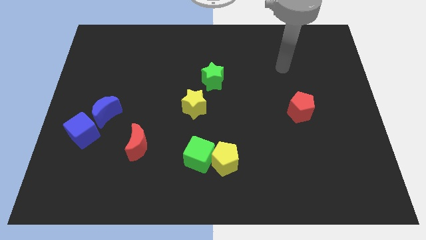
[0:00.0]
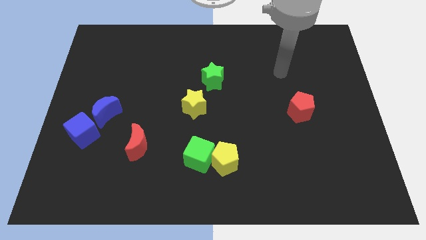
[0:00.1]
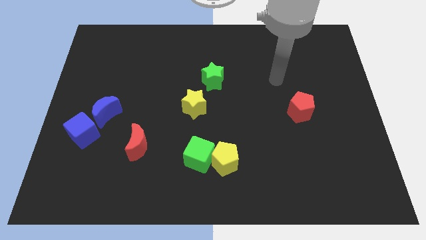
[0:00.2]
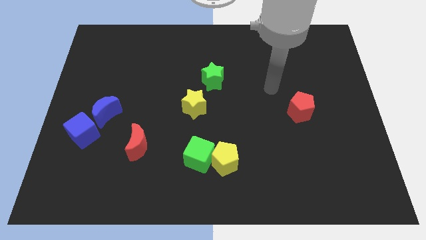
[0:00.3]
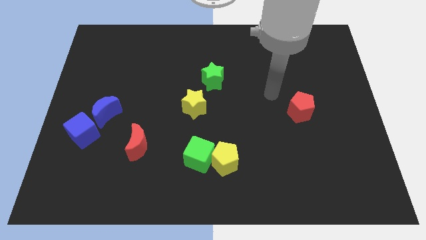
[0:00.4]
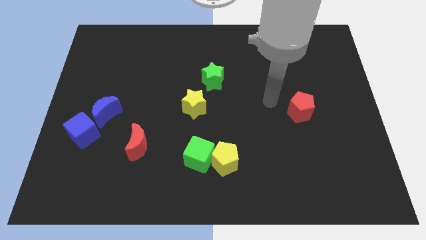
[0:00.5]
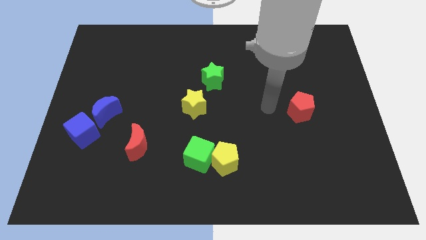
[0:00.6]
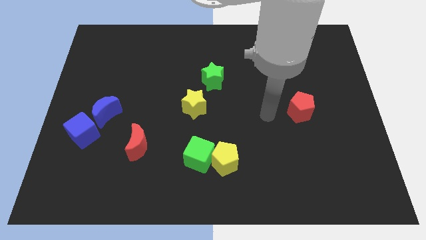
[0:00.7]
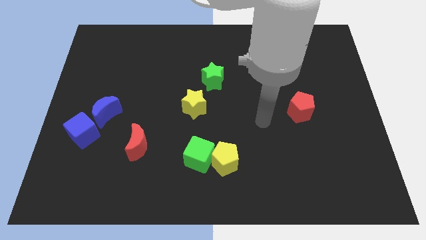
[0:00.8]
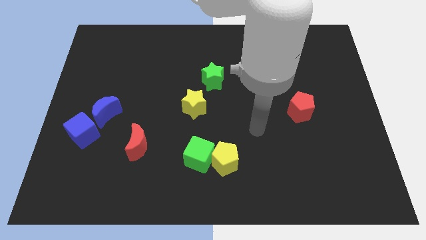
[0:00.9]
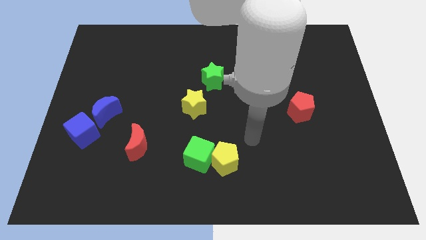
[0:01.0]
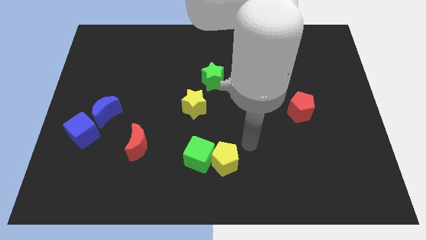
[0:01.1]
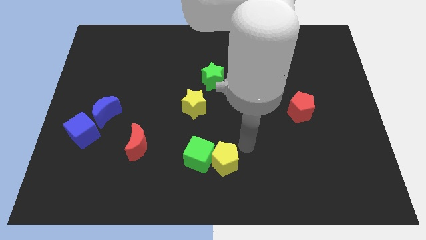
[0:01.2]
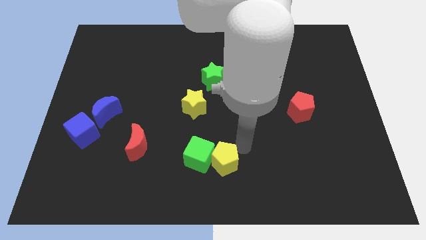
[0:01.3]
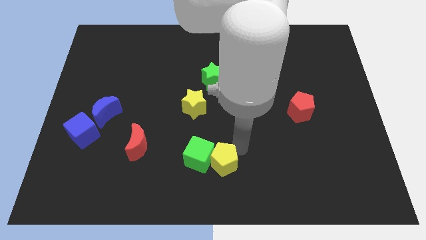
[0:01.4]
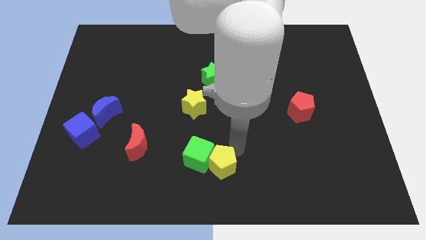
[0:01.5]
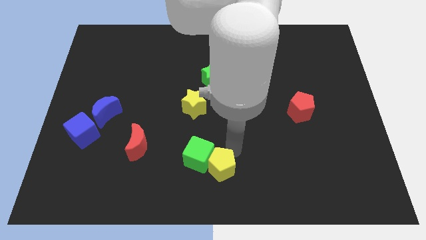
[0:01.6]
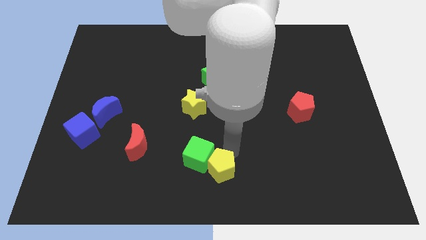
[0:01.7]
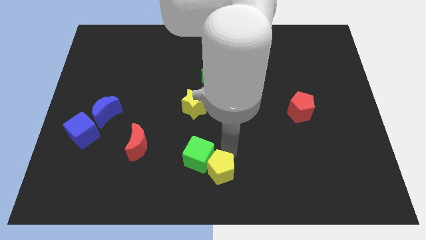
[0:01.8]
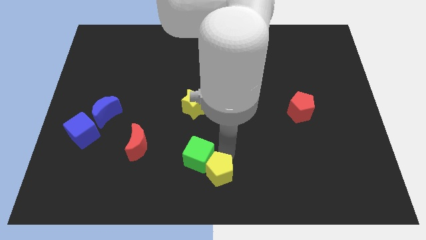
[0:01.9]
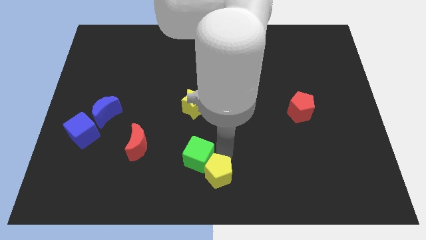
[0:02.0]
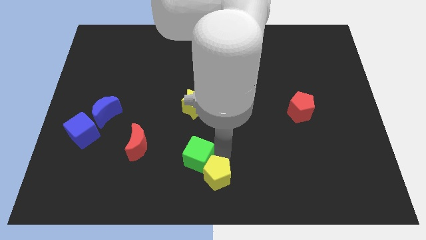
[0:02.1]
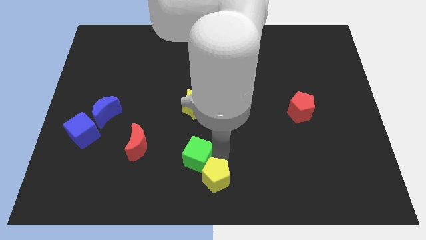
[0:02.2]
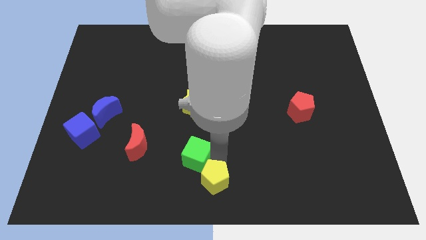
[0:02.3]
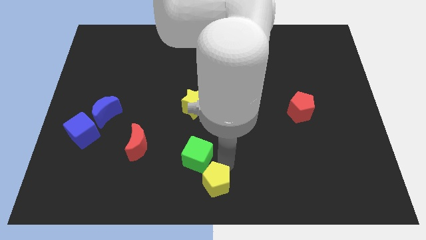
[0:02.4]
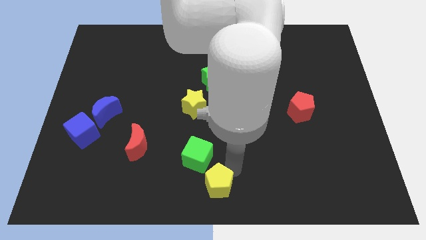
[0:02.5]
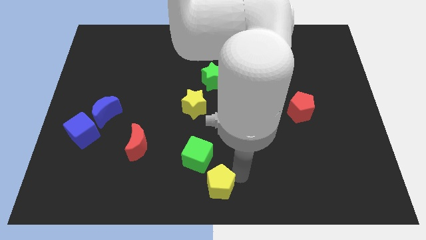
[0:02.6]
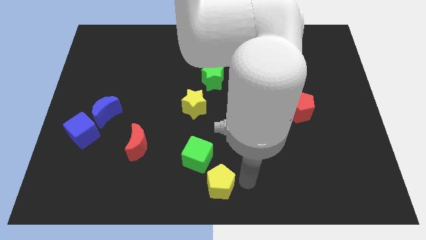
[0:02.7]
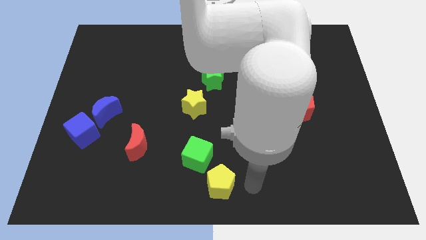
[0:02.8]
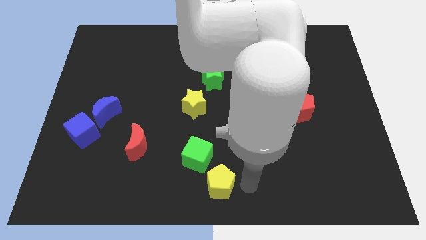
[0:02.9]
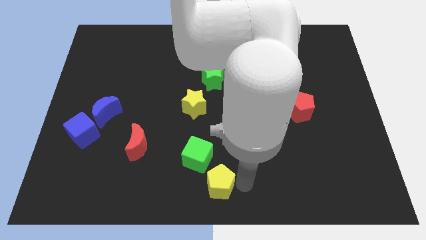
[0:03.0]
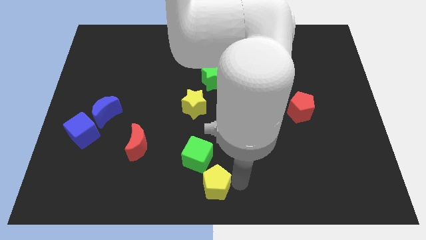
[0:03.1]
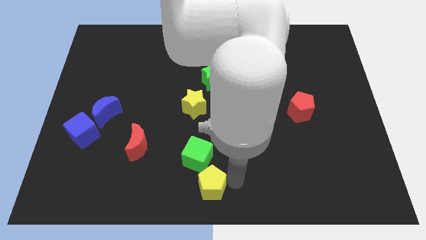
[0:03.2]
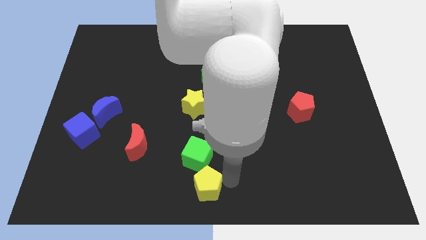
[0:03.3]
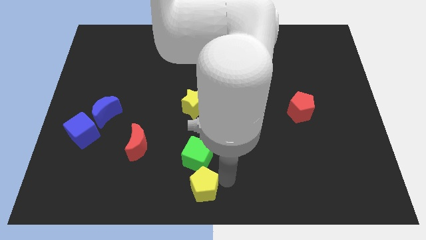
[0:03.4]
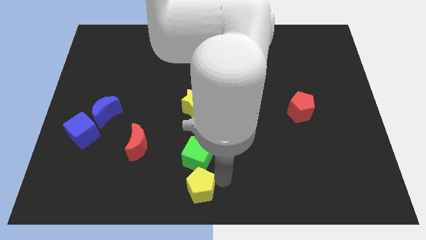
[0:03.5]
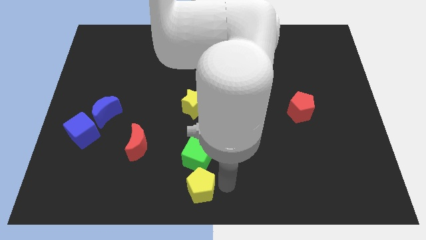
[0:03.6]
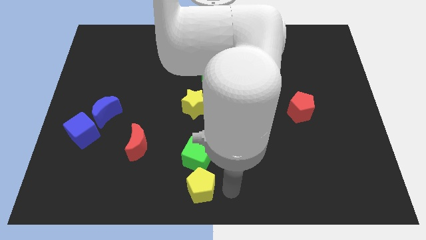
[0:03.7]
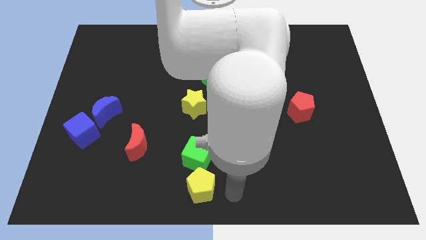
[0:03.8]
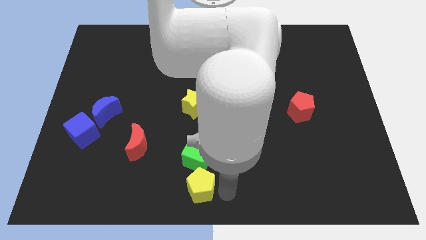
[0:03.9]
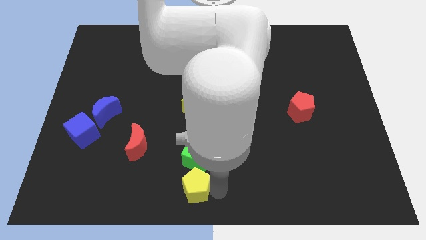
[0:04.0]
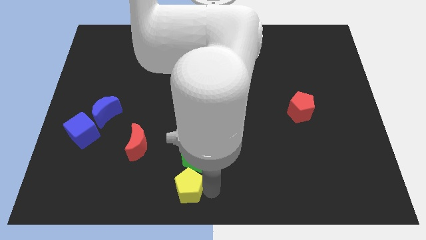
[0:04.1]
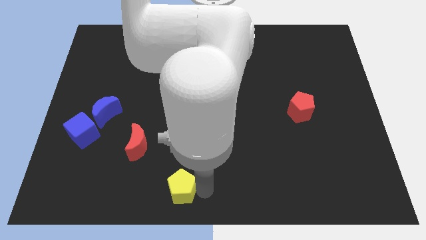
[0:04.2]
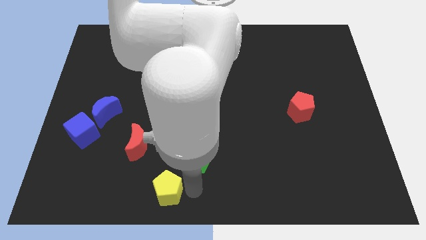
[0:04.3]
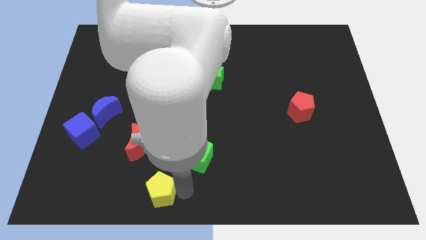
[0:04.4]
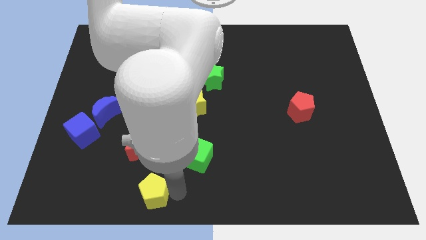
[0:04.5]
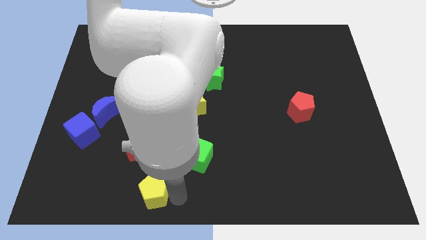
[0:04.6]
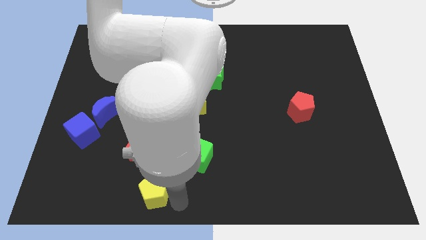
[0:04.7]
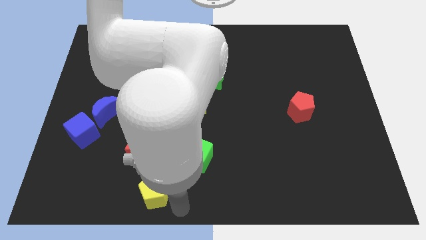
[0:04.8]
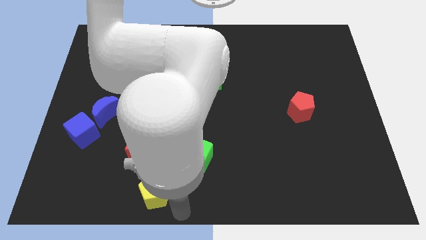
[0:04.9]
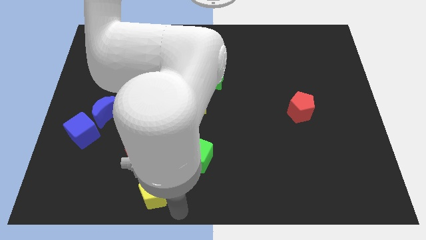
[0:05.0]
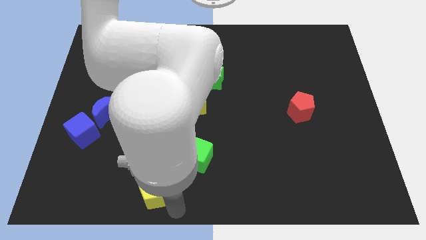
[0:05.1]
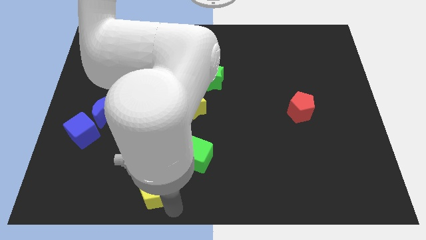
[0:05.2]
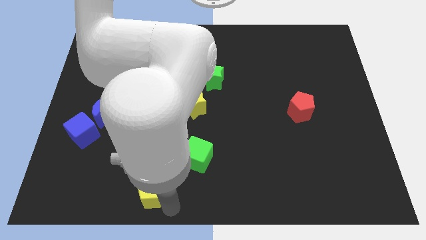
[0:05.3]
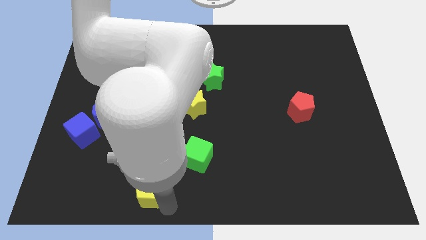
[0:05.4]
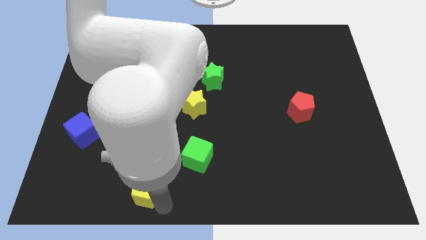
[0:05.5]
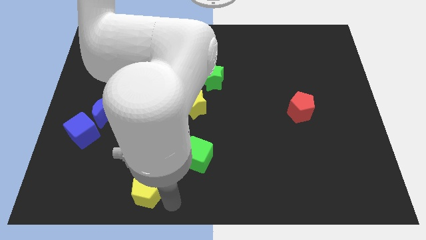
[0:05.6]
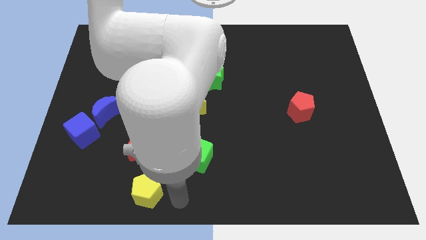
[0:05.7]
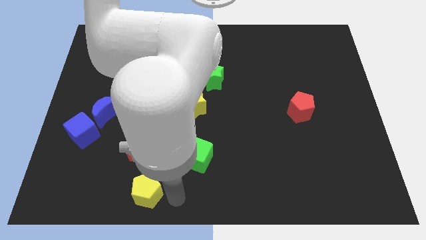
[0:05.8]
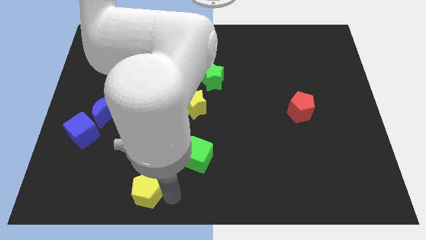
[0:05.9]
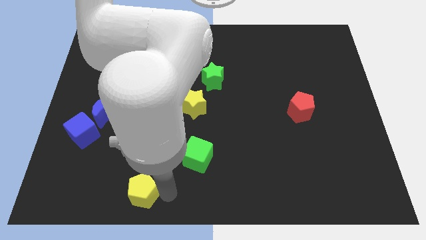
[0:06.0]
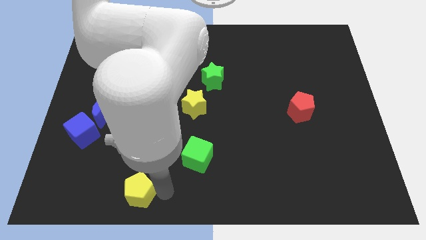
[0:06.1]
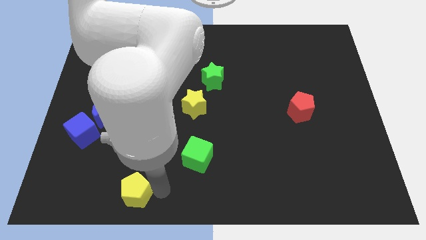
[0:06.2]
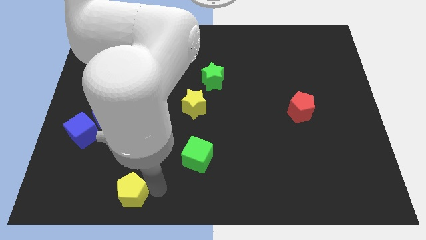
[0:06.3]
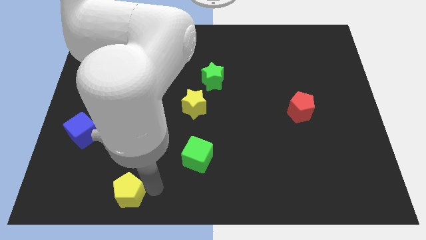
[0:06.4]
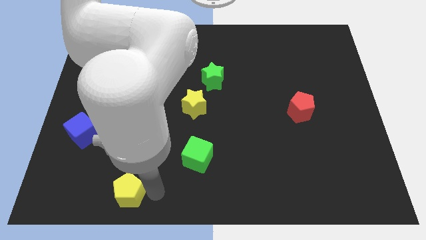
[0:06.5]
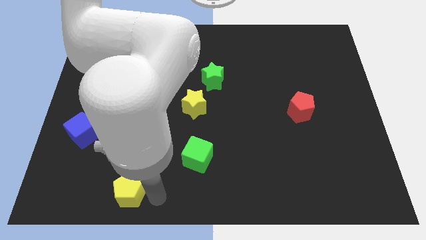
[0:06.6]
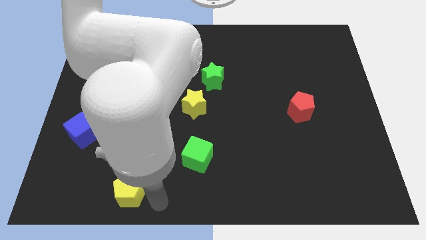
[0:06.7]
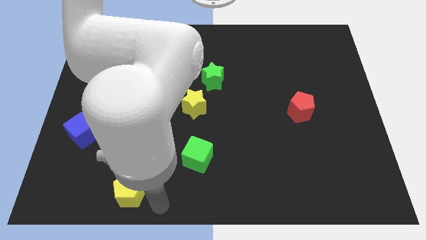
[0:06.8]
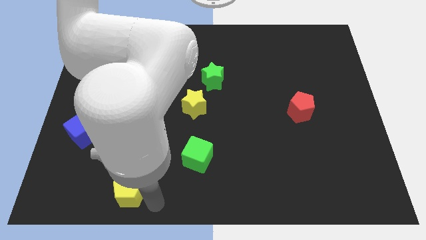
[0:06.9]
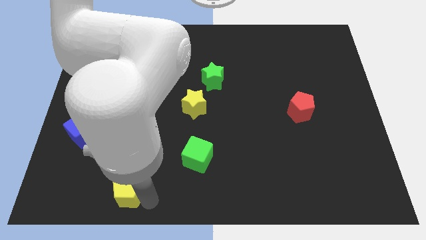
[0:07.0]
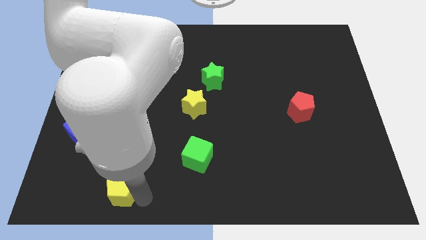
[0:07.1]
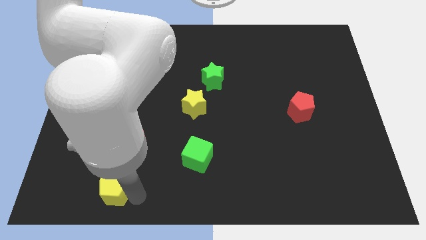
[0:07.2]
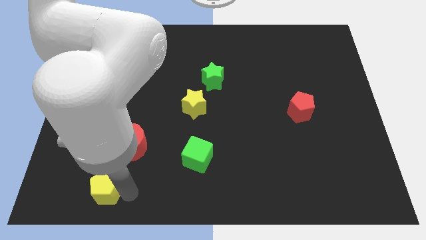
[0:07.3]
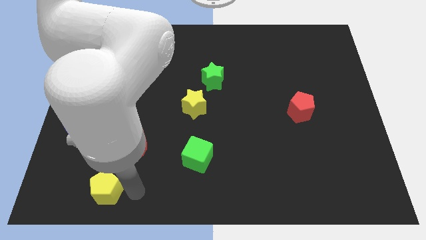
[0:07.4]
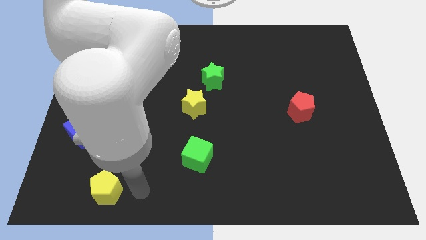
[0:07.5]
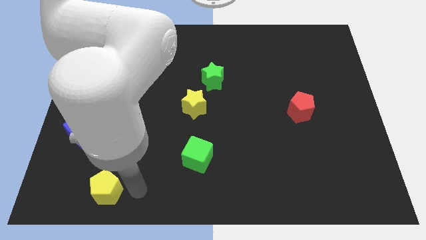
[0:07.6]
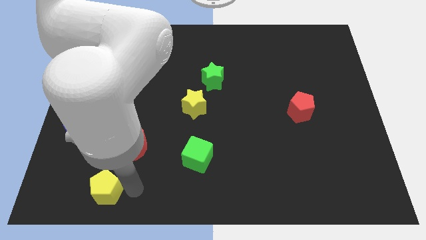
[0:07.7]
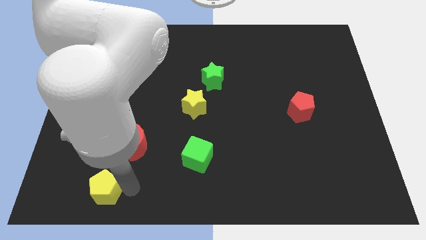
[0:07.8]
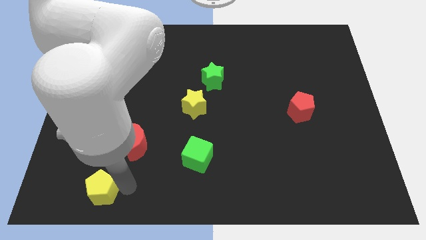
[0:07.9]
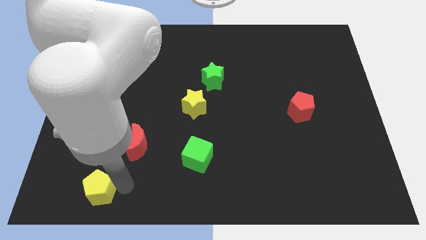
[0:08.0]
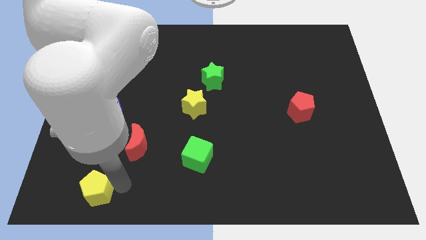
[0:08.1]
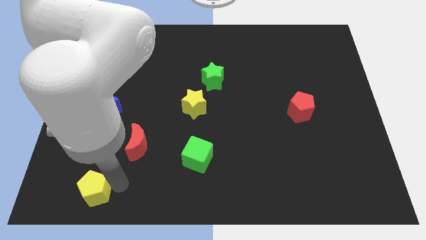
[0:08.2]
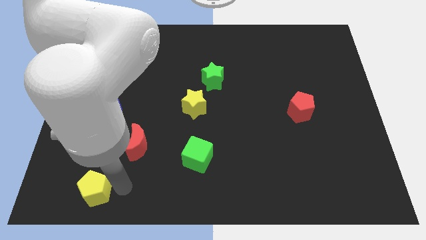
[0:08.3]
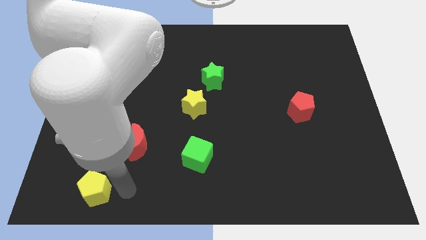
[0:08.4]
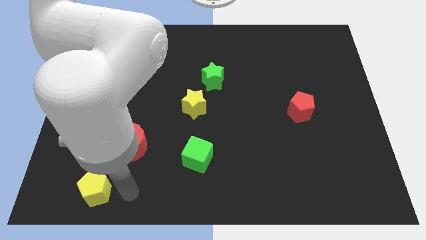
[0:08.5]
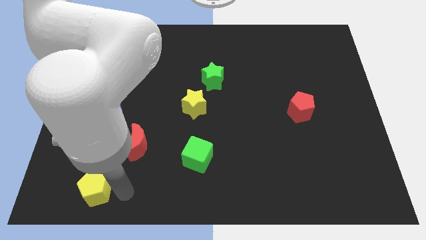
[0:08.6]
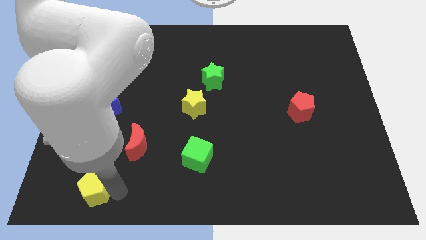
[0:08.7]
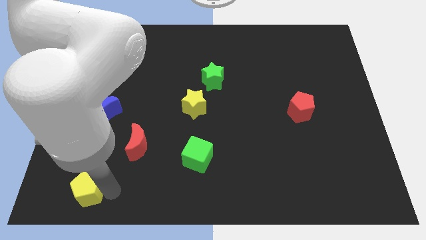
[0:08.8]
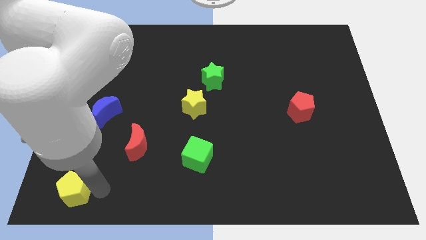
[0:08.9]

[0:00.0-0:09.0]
slide the yellow pentagon to the lower left corner
